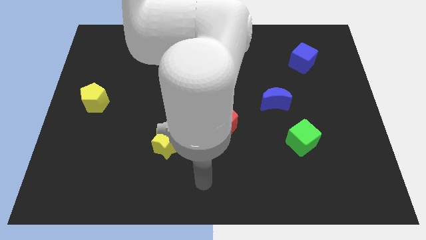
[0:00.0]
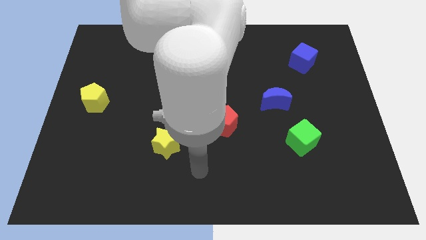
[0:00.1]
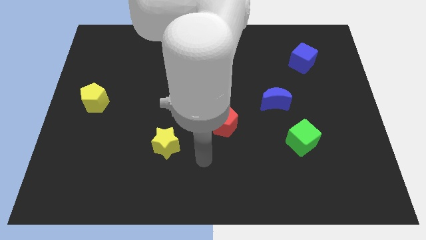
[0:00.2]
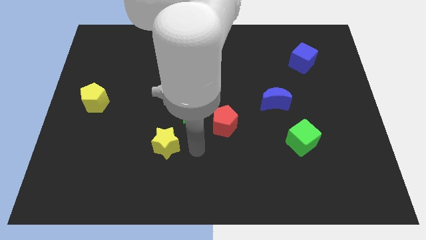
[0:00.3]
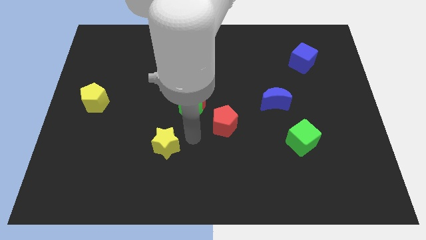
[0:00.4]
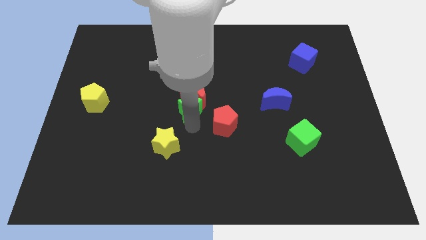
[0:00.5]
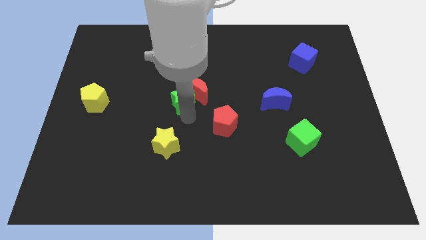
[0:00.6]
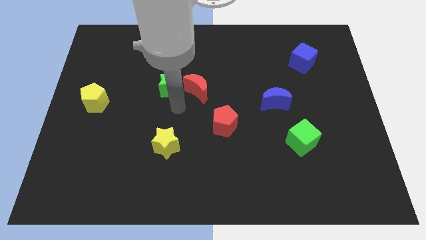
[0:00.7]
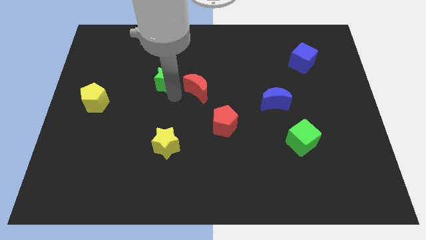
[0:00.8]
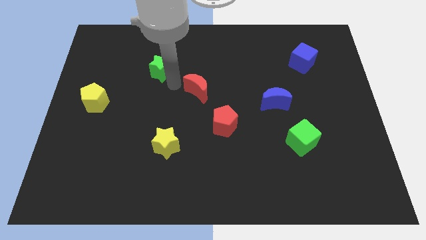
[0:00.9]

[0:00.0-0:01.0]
move the red moon away from the green star

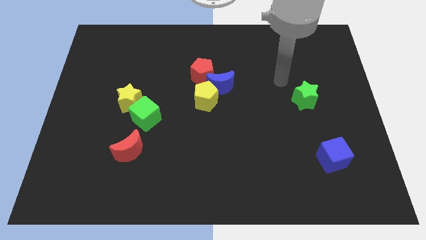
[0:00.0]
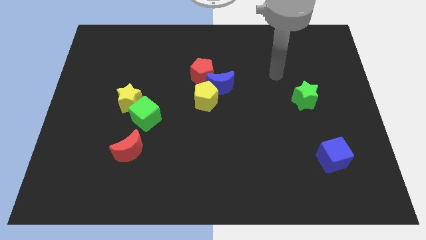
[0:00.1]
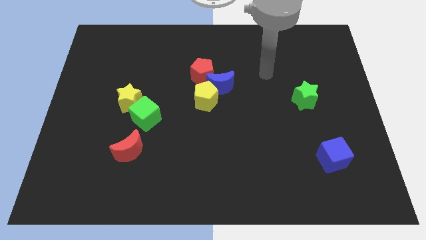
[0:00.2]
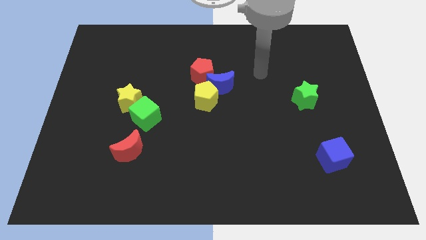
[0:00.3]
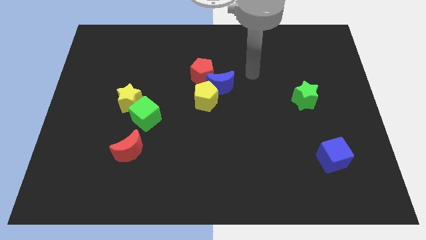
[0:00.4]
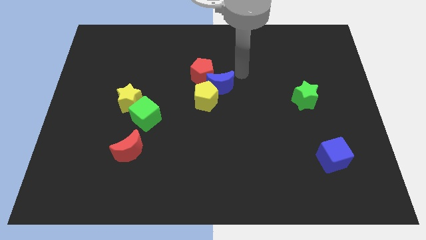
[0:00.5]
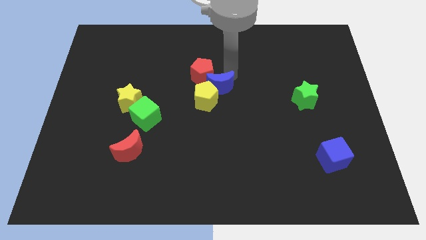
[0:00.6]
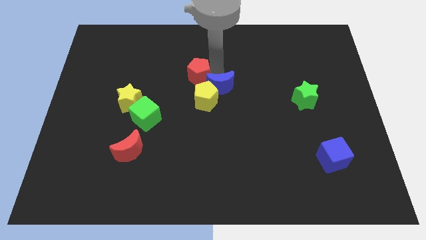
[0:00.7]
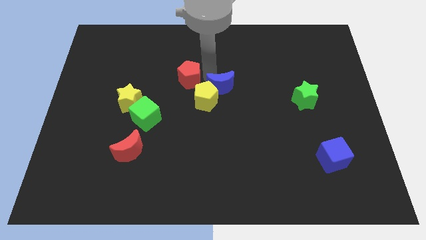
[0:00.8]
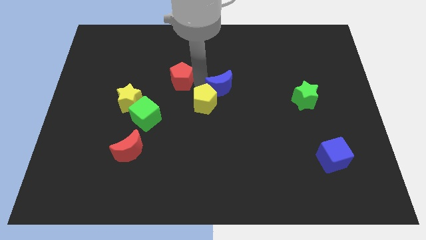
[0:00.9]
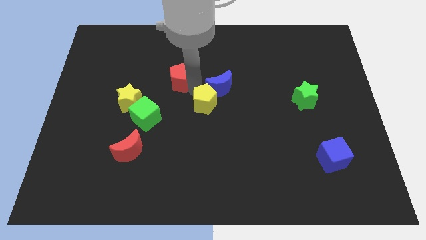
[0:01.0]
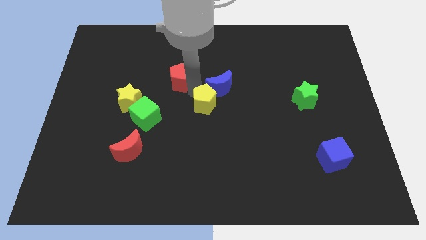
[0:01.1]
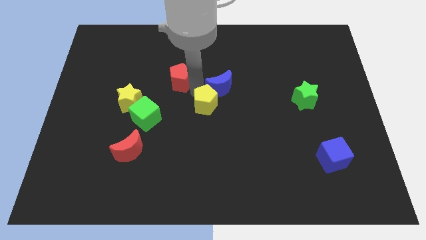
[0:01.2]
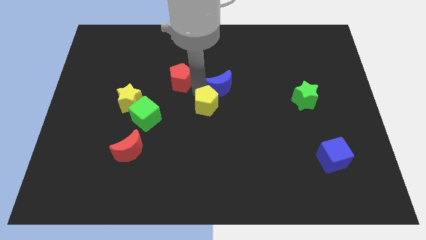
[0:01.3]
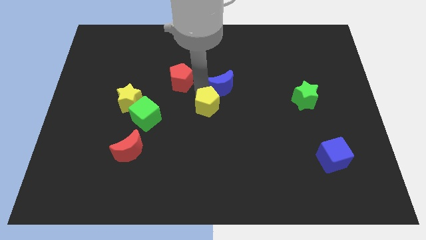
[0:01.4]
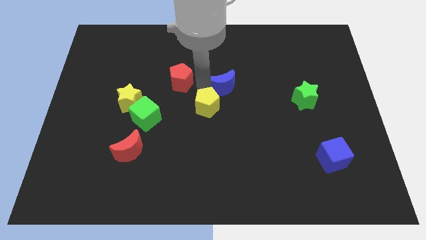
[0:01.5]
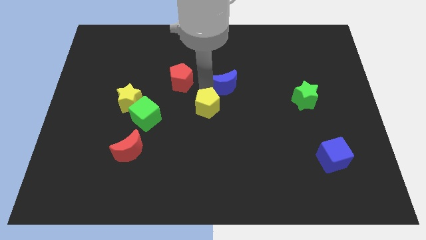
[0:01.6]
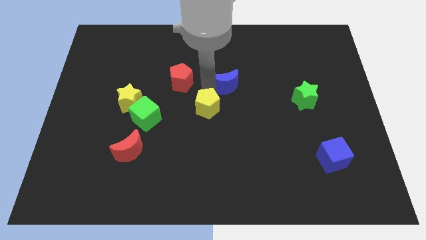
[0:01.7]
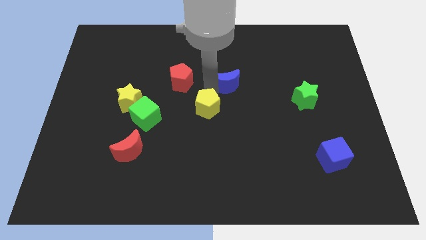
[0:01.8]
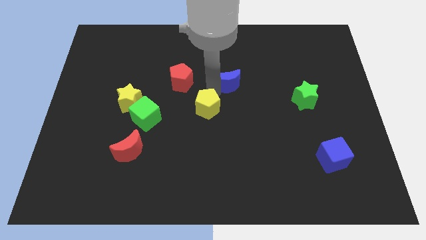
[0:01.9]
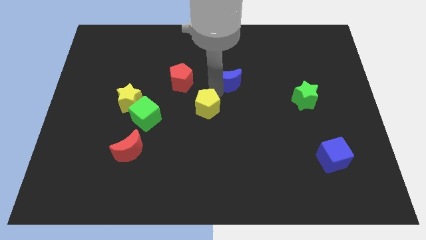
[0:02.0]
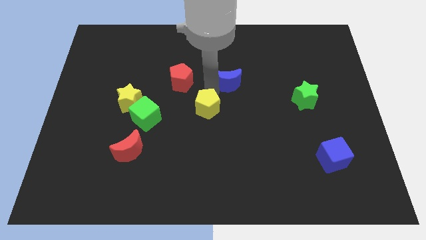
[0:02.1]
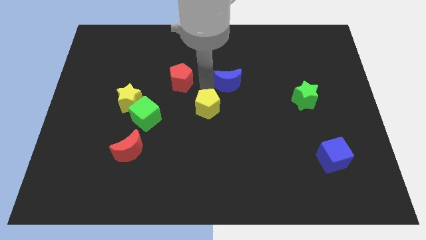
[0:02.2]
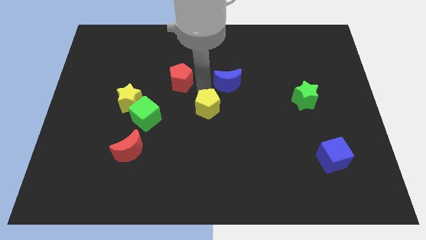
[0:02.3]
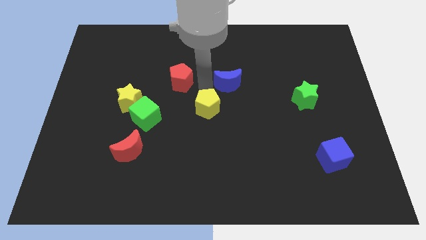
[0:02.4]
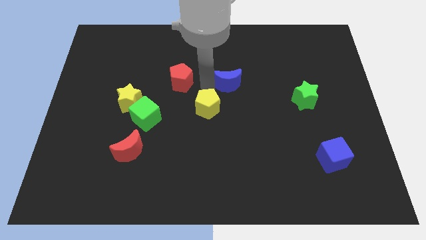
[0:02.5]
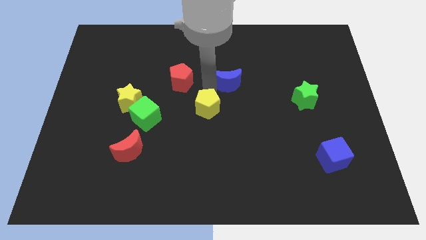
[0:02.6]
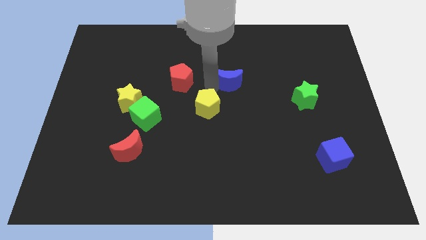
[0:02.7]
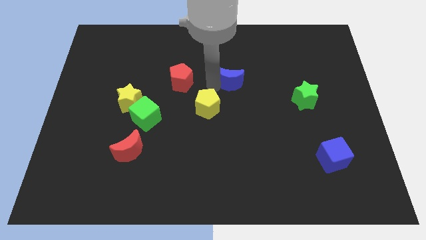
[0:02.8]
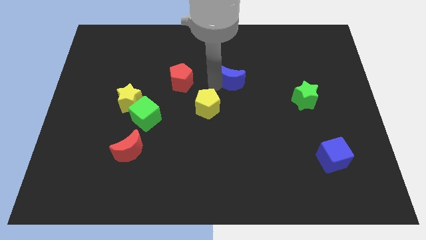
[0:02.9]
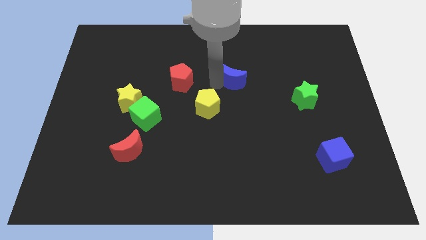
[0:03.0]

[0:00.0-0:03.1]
separate the blue moon from the yellow pentagon and red pentagon

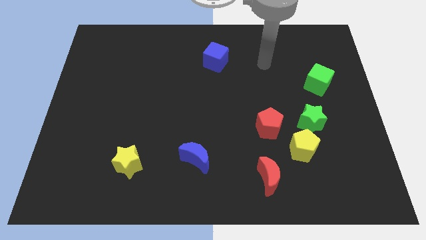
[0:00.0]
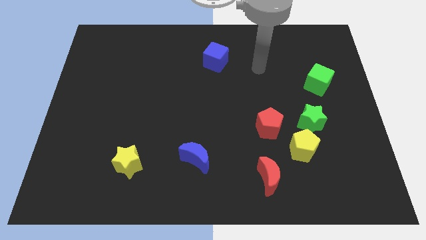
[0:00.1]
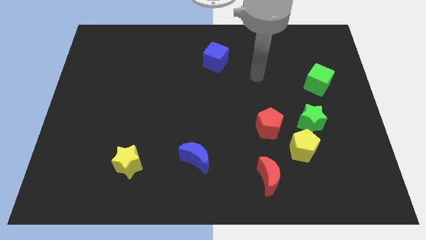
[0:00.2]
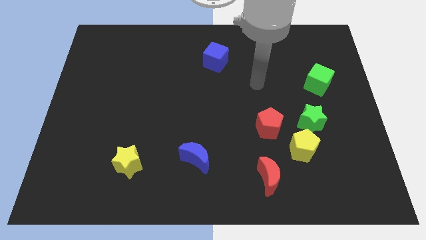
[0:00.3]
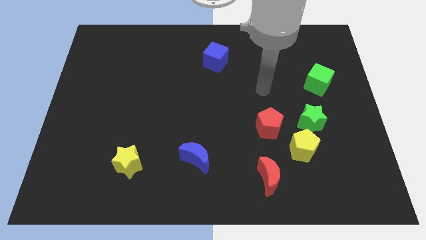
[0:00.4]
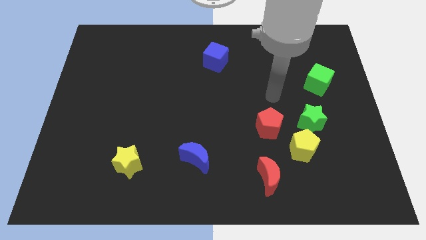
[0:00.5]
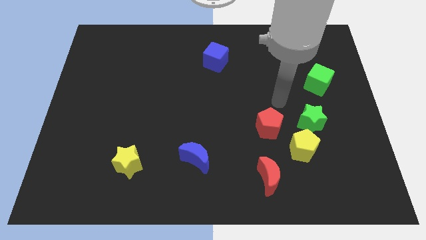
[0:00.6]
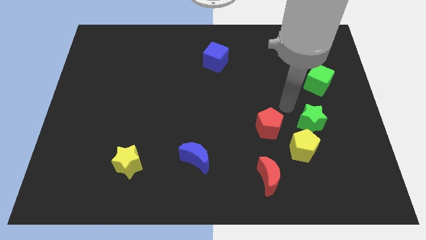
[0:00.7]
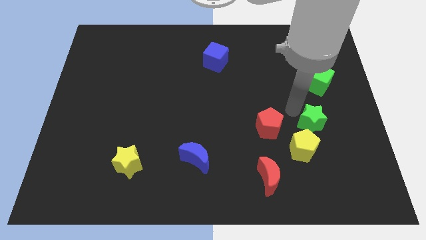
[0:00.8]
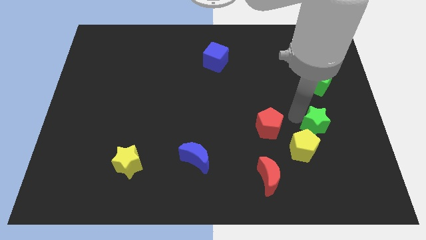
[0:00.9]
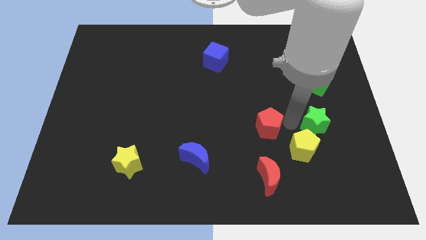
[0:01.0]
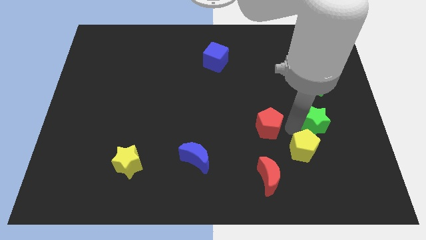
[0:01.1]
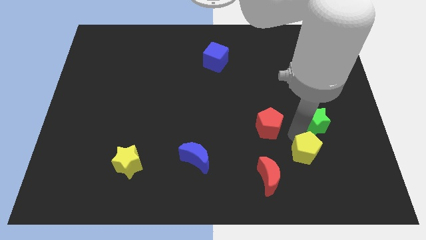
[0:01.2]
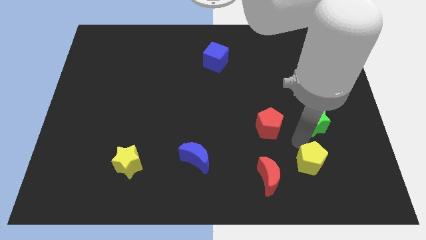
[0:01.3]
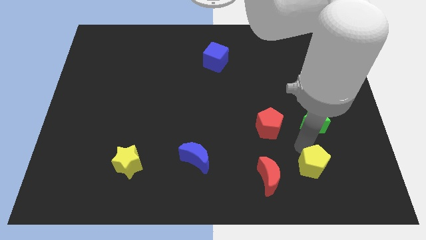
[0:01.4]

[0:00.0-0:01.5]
pull the yellow pentagon apart from the green star and red pentagon

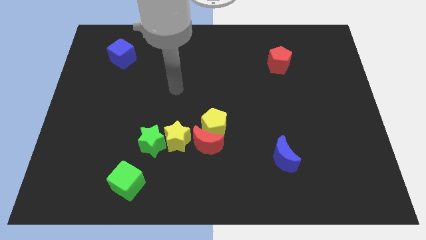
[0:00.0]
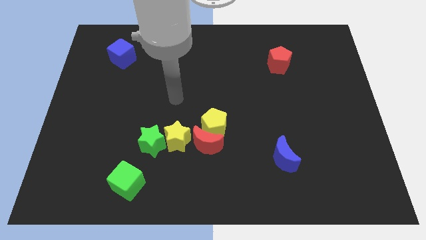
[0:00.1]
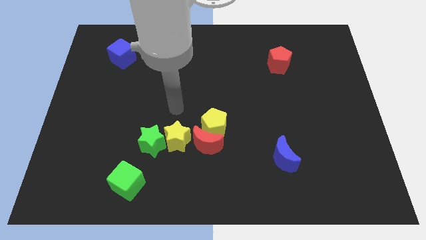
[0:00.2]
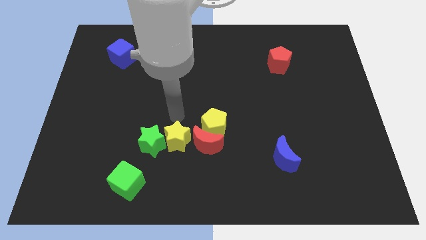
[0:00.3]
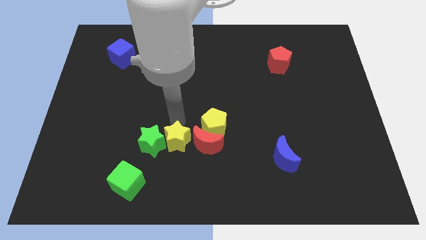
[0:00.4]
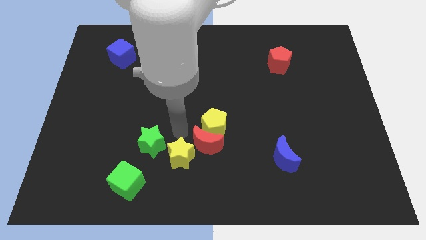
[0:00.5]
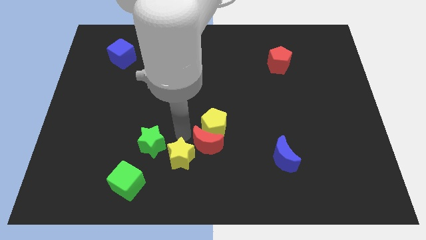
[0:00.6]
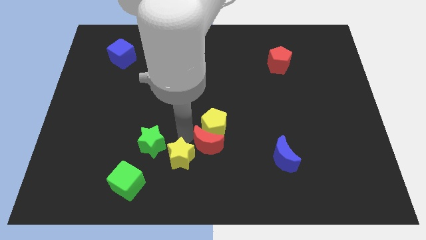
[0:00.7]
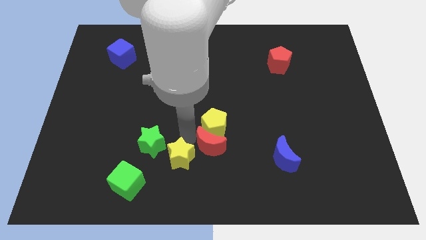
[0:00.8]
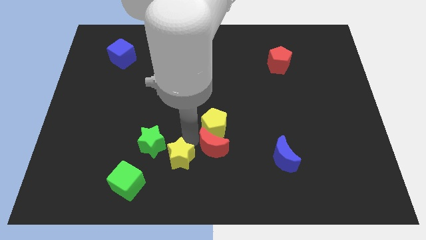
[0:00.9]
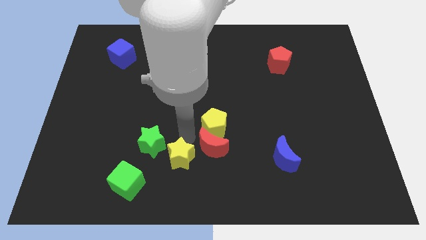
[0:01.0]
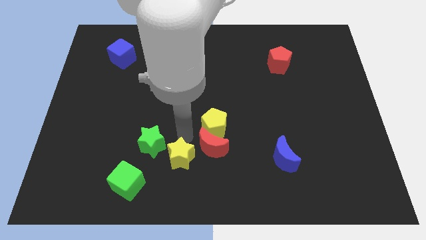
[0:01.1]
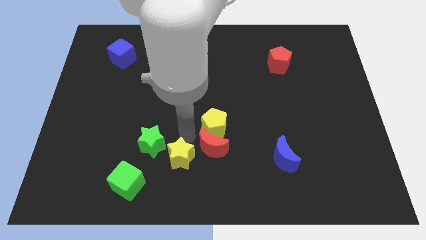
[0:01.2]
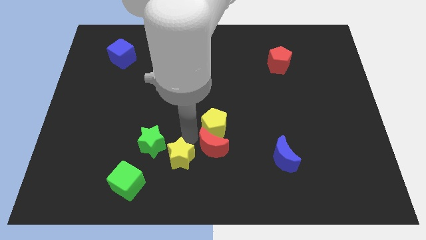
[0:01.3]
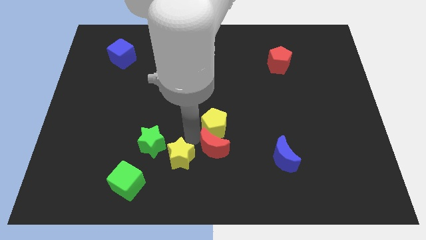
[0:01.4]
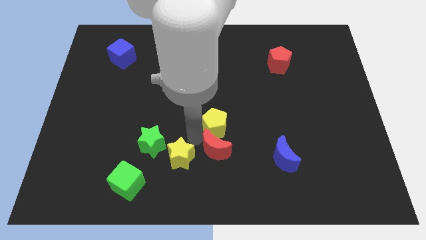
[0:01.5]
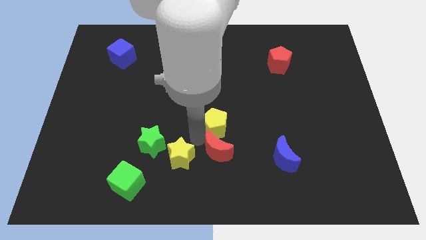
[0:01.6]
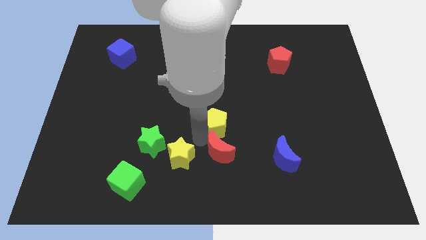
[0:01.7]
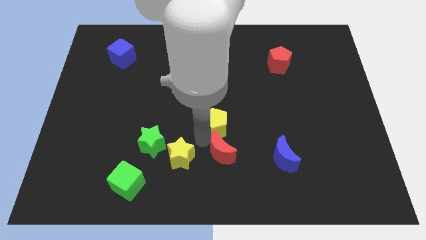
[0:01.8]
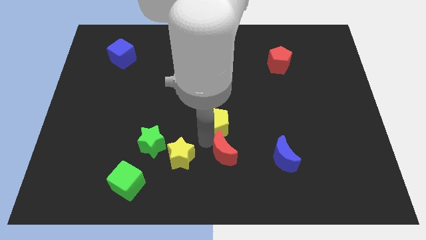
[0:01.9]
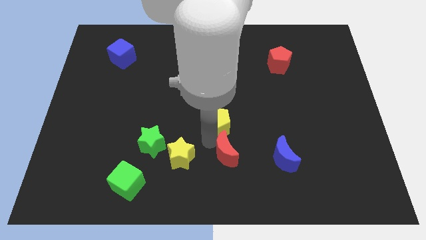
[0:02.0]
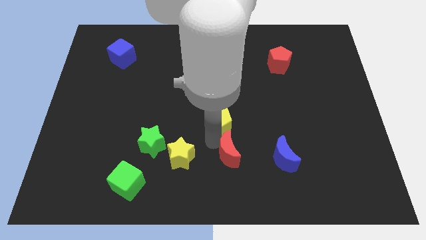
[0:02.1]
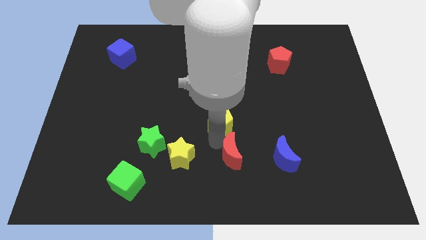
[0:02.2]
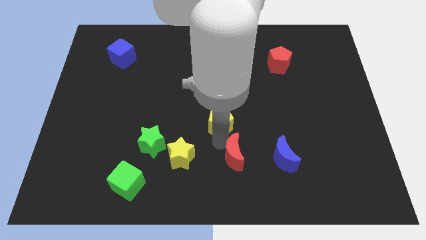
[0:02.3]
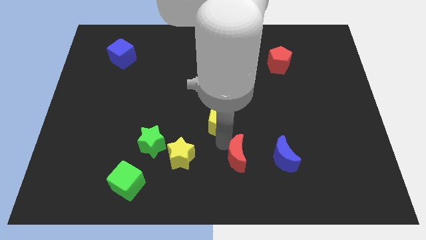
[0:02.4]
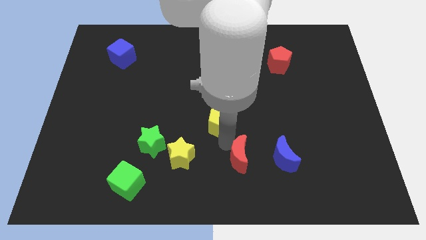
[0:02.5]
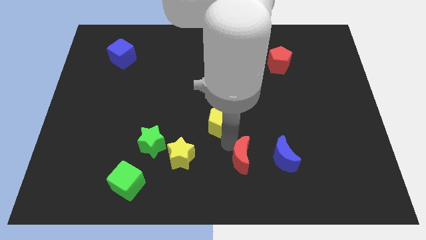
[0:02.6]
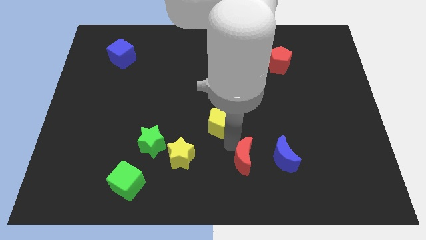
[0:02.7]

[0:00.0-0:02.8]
separate the red moon from the yellow pentagon and yellow star

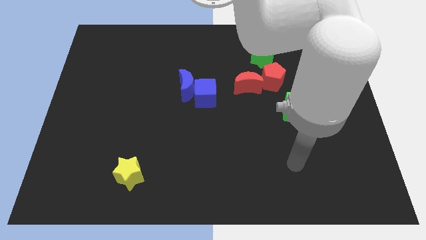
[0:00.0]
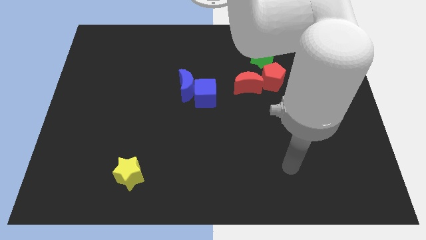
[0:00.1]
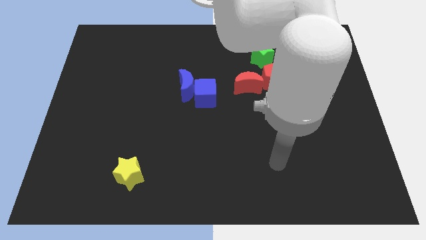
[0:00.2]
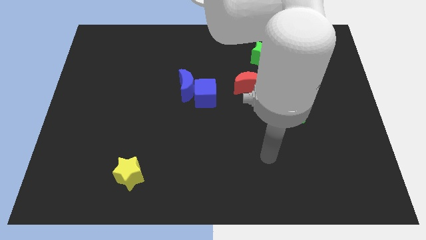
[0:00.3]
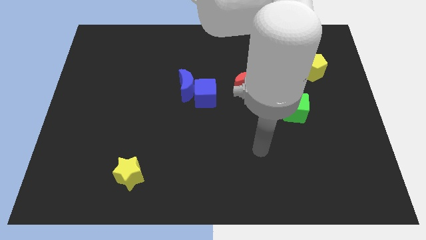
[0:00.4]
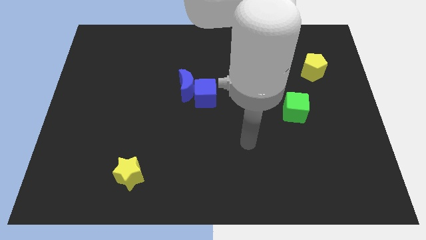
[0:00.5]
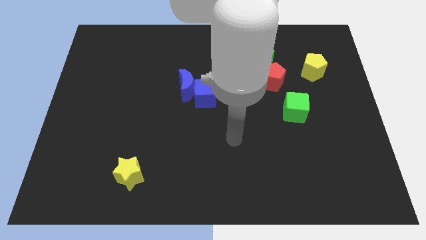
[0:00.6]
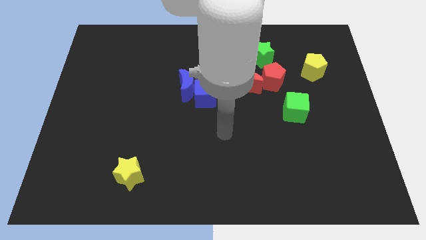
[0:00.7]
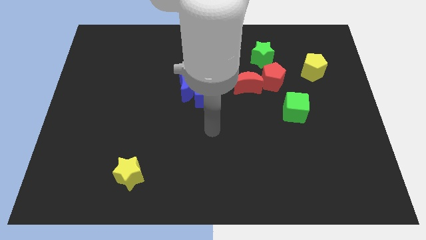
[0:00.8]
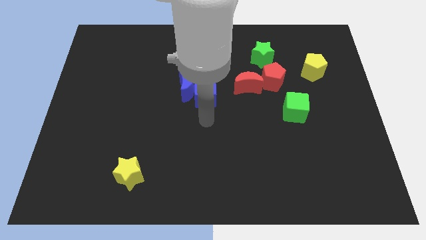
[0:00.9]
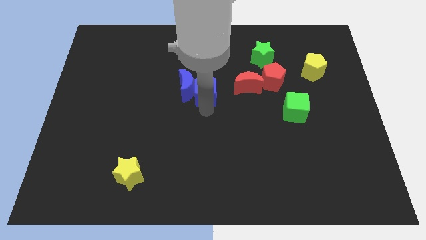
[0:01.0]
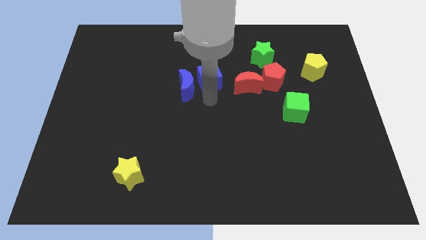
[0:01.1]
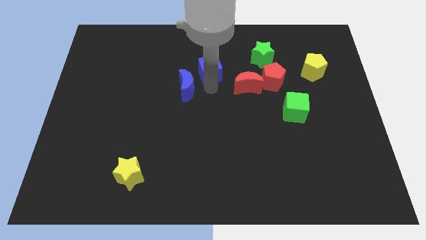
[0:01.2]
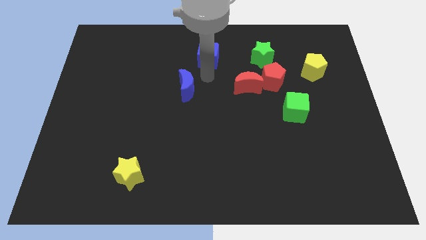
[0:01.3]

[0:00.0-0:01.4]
move the blue moon away from the blue cube
